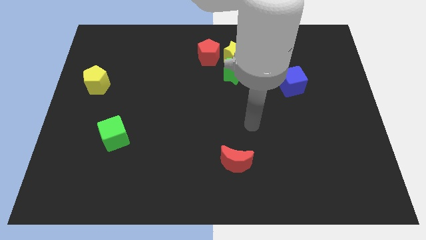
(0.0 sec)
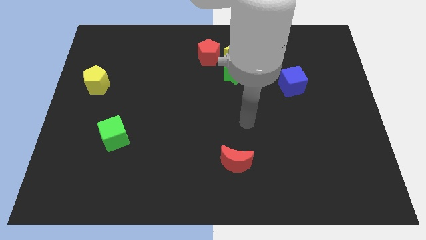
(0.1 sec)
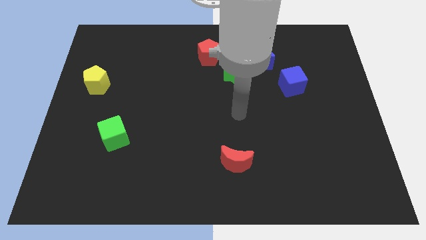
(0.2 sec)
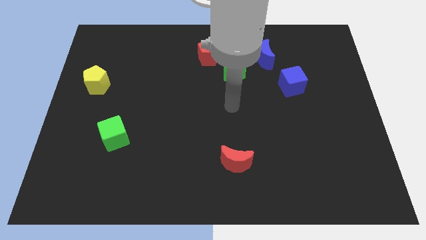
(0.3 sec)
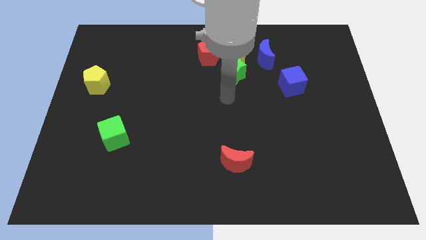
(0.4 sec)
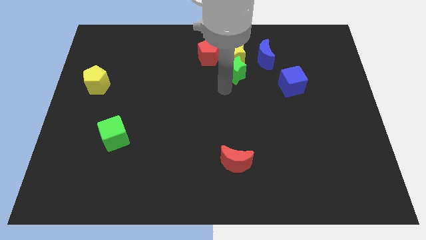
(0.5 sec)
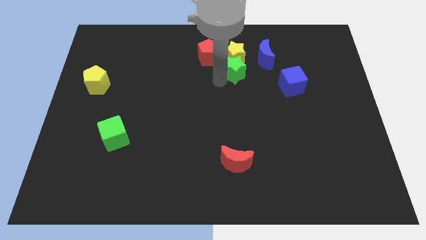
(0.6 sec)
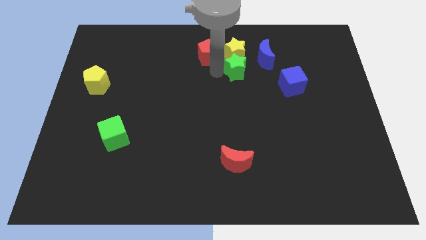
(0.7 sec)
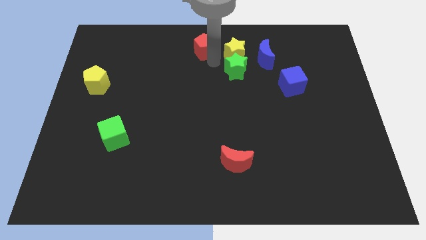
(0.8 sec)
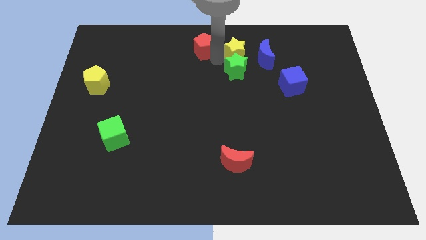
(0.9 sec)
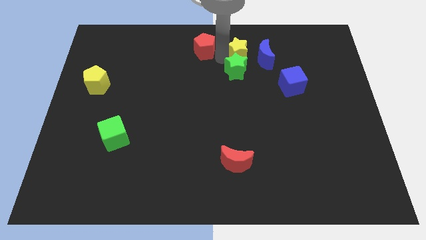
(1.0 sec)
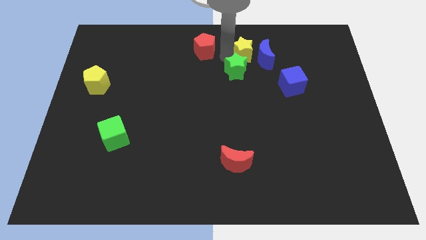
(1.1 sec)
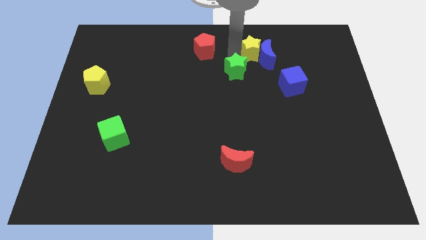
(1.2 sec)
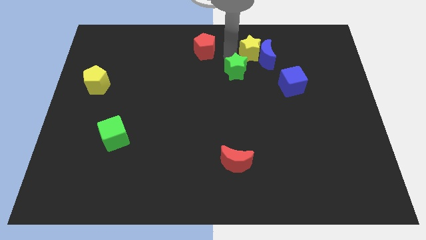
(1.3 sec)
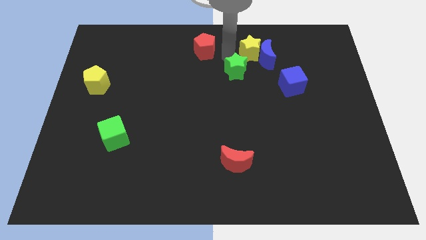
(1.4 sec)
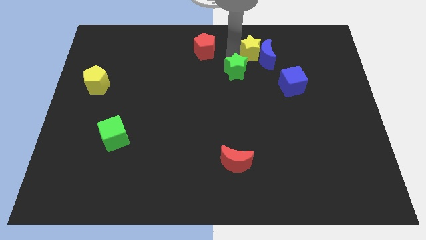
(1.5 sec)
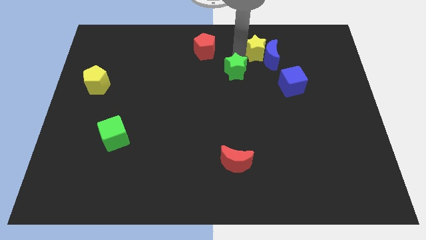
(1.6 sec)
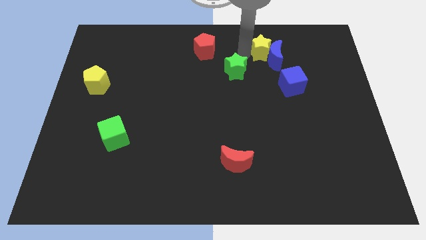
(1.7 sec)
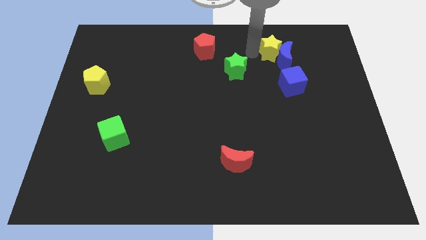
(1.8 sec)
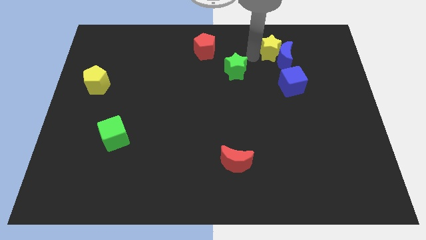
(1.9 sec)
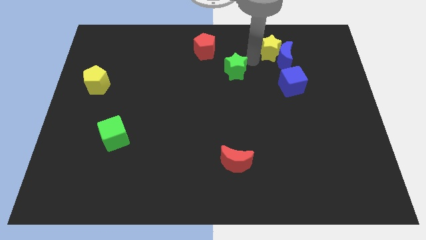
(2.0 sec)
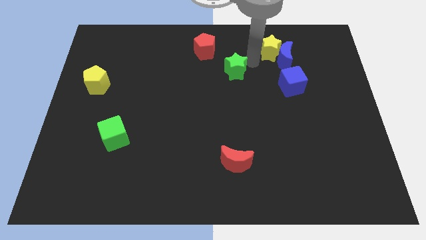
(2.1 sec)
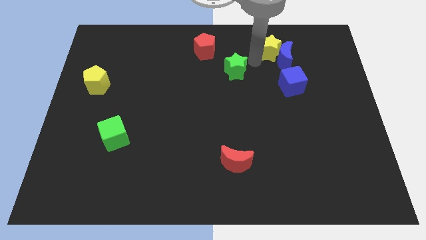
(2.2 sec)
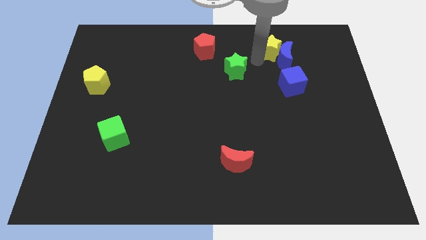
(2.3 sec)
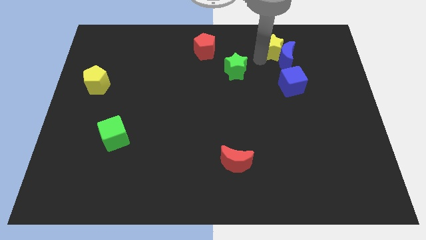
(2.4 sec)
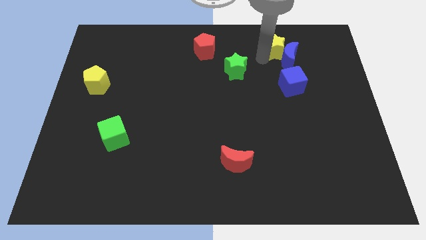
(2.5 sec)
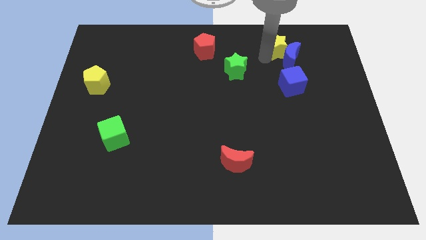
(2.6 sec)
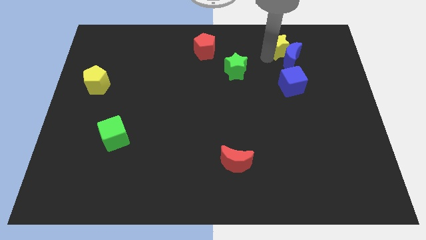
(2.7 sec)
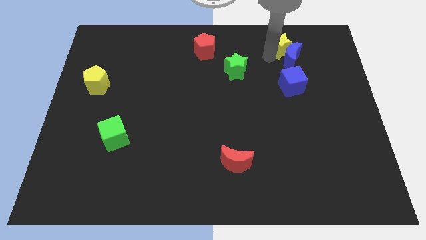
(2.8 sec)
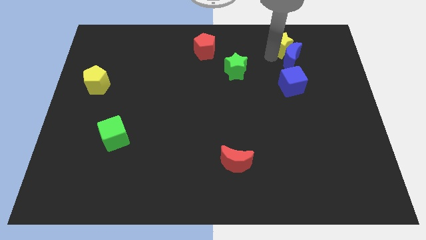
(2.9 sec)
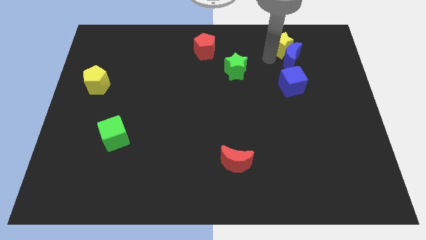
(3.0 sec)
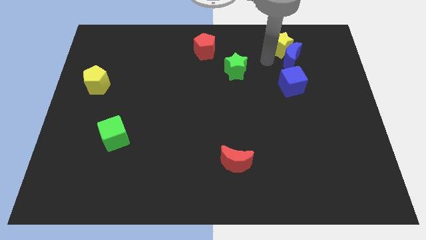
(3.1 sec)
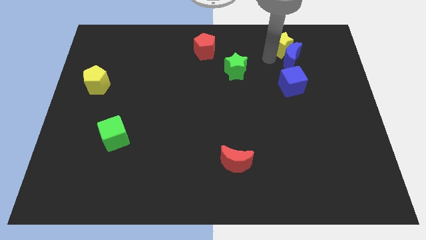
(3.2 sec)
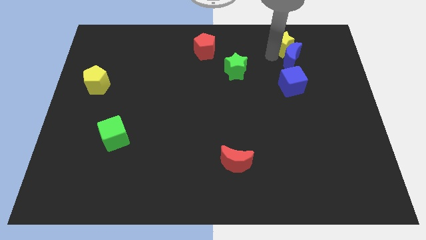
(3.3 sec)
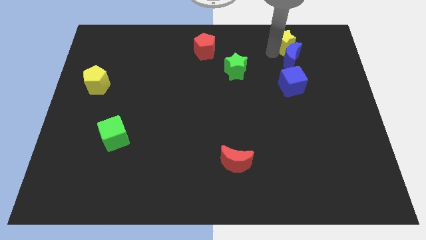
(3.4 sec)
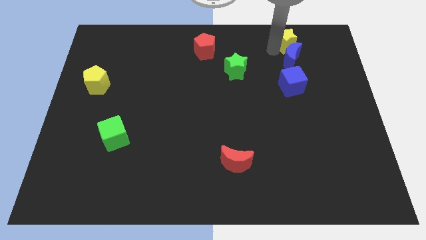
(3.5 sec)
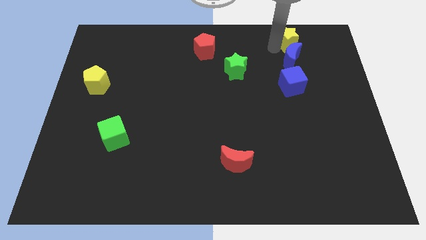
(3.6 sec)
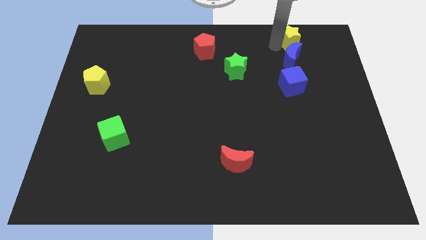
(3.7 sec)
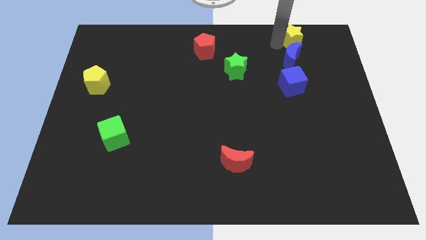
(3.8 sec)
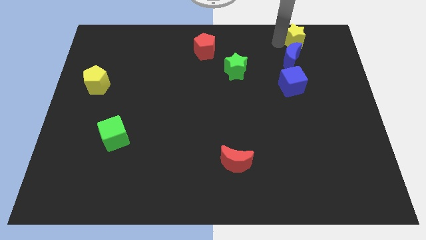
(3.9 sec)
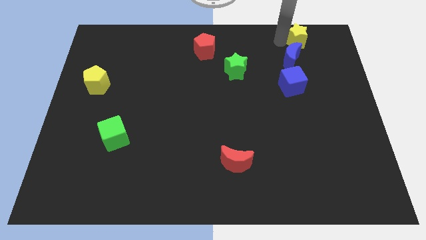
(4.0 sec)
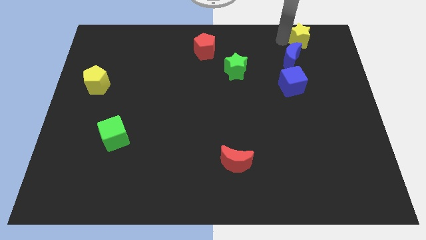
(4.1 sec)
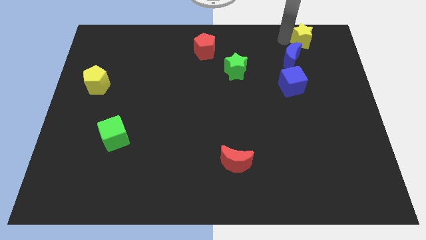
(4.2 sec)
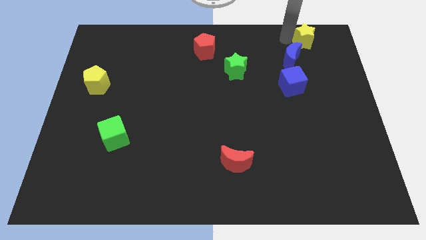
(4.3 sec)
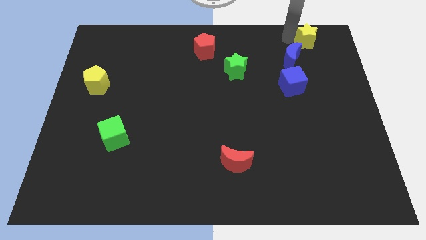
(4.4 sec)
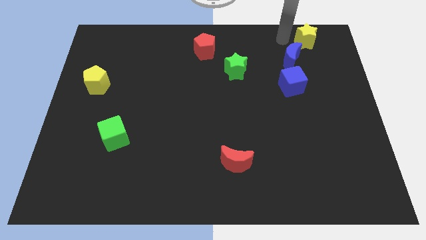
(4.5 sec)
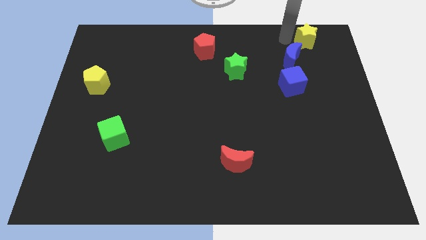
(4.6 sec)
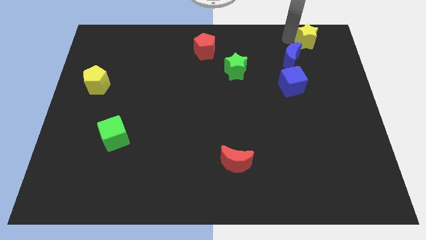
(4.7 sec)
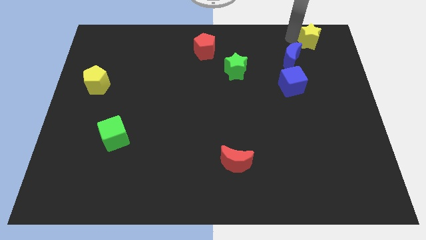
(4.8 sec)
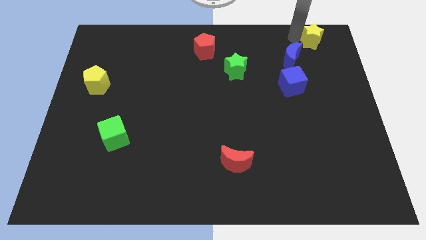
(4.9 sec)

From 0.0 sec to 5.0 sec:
slide the yellow star to the top right corner

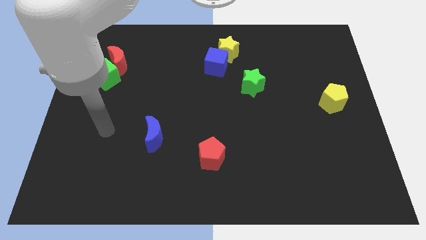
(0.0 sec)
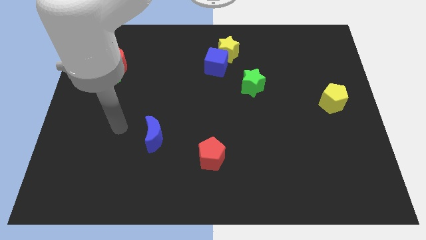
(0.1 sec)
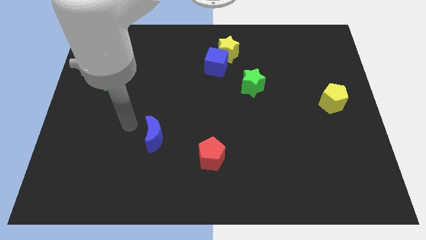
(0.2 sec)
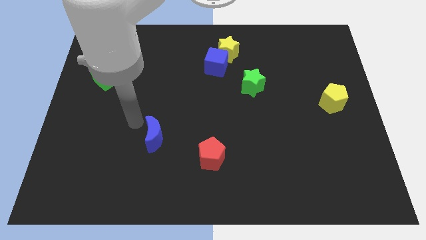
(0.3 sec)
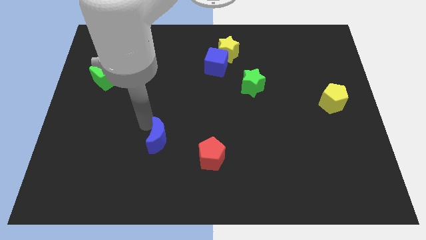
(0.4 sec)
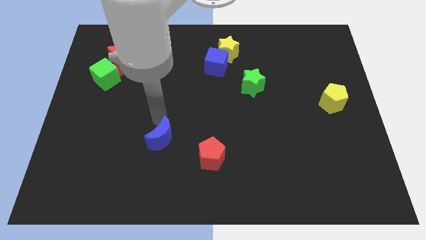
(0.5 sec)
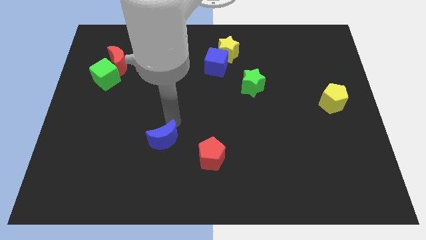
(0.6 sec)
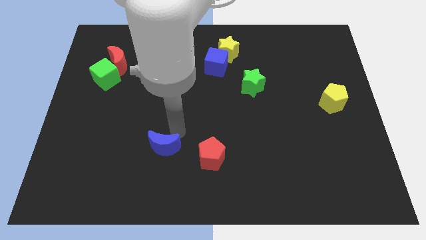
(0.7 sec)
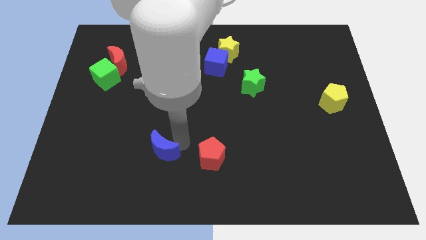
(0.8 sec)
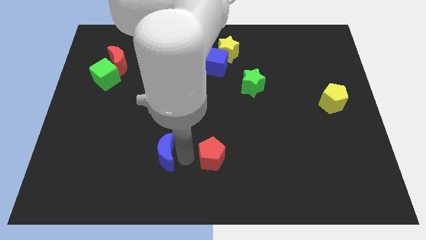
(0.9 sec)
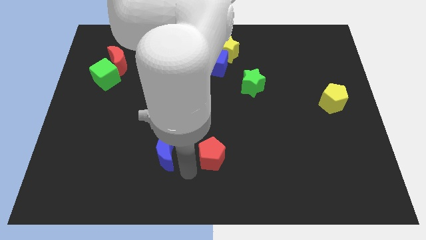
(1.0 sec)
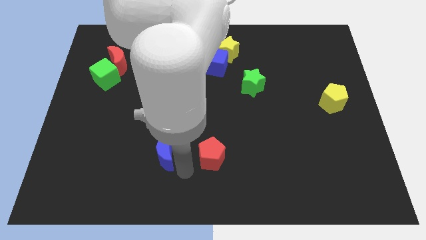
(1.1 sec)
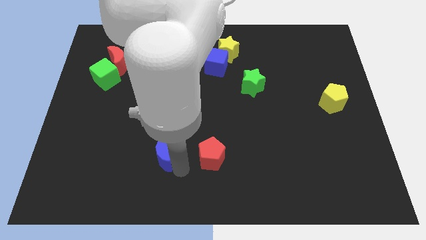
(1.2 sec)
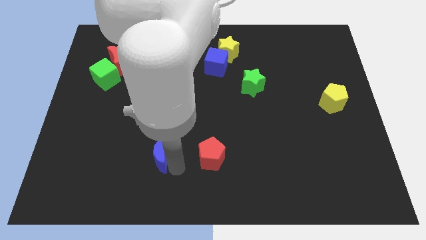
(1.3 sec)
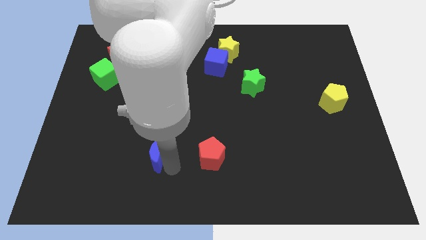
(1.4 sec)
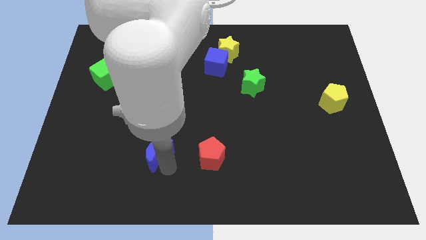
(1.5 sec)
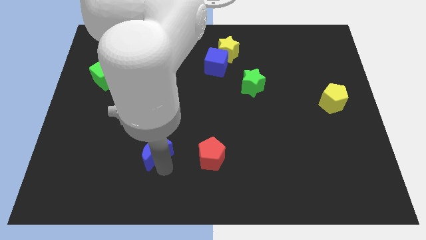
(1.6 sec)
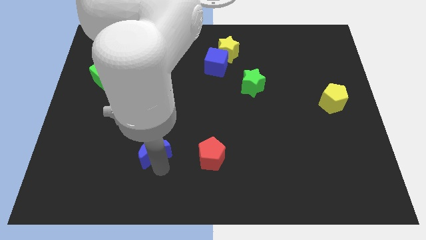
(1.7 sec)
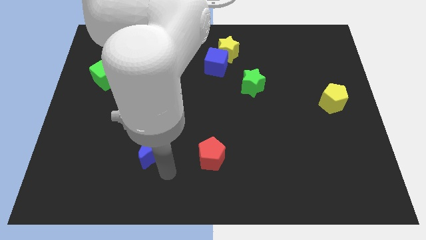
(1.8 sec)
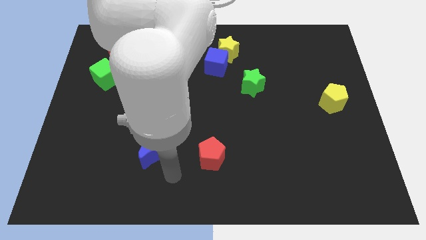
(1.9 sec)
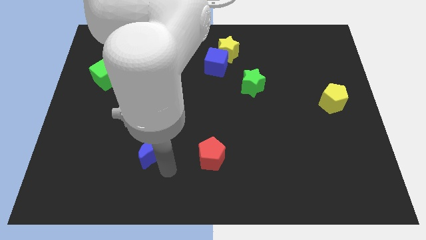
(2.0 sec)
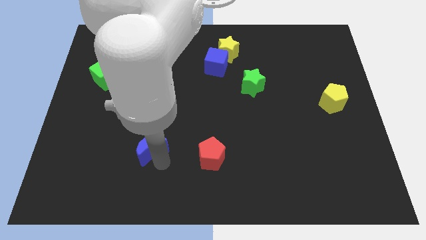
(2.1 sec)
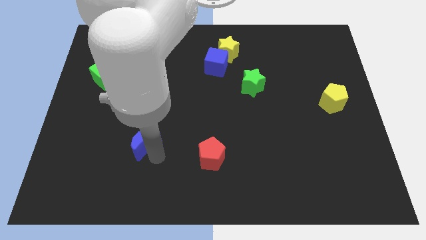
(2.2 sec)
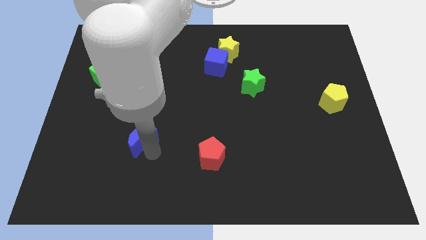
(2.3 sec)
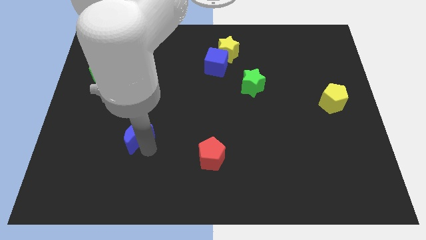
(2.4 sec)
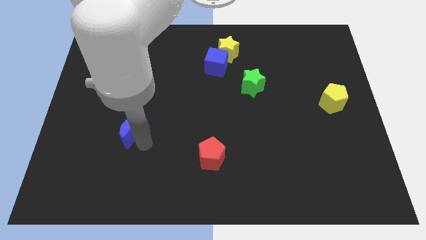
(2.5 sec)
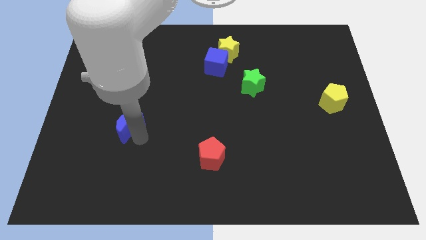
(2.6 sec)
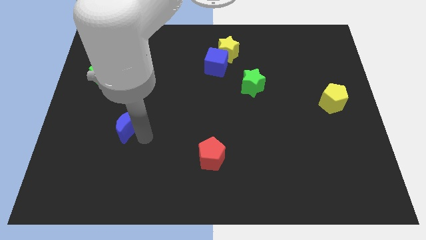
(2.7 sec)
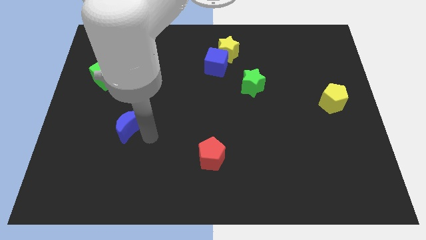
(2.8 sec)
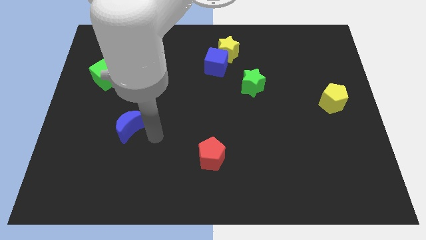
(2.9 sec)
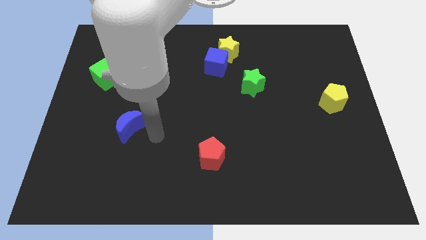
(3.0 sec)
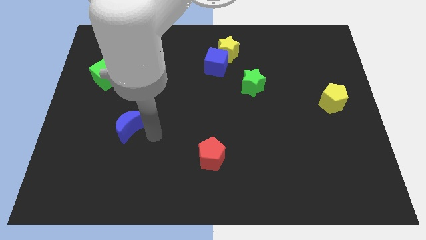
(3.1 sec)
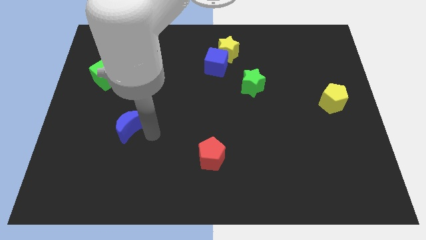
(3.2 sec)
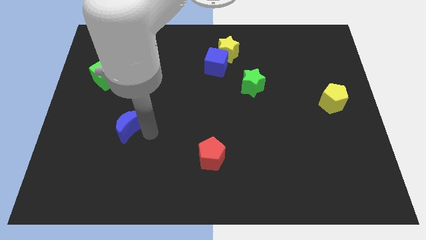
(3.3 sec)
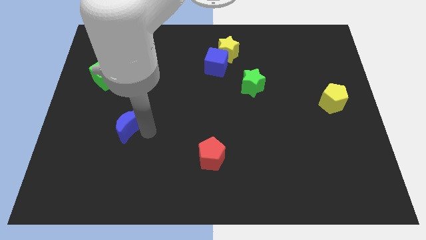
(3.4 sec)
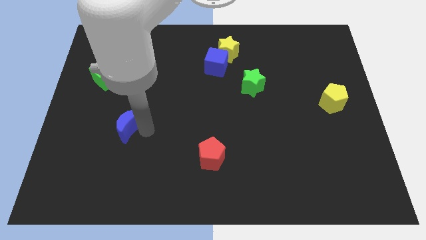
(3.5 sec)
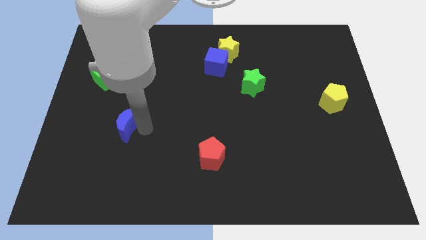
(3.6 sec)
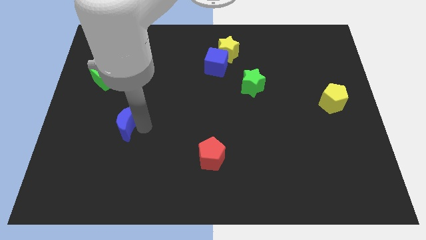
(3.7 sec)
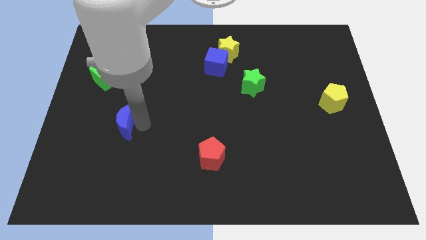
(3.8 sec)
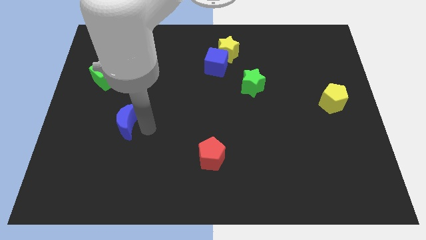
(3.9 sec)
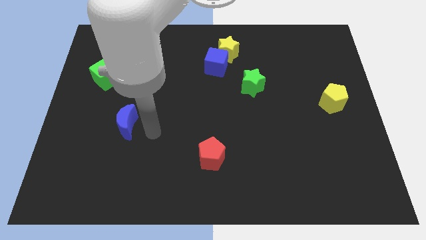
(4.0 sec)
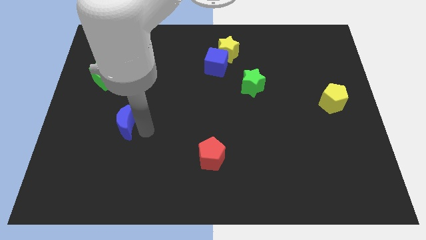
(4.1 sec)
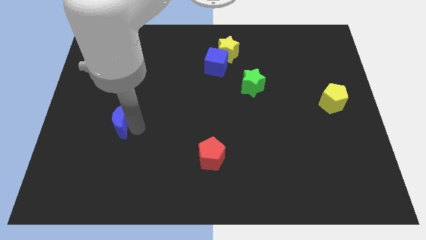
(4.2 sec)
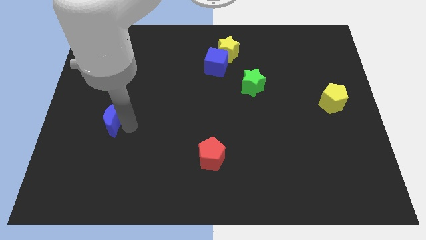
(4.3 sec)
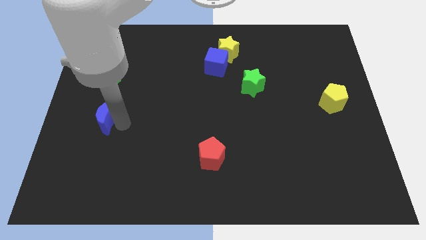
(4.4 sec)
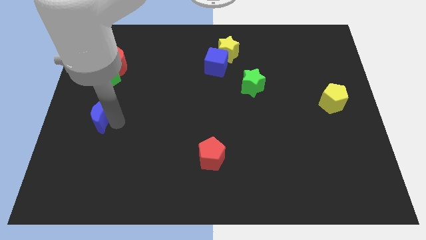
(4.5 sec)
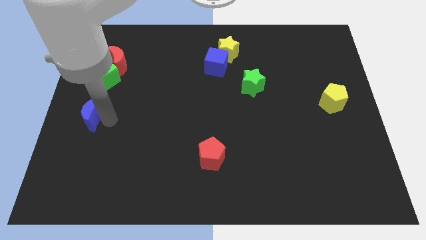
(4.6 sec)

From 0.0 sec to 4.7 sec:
put the blue moon to the center left
